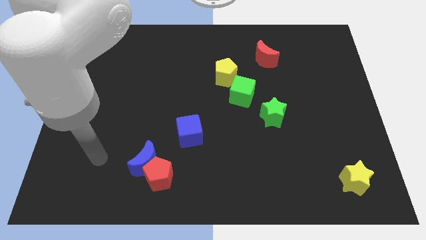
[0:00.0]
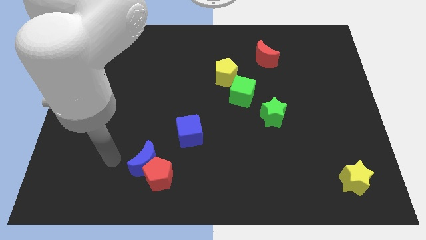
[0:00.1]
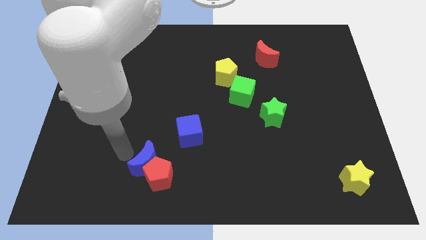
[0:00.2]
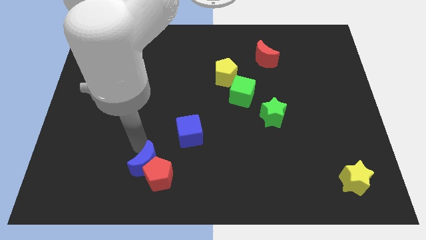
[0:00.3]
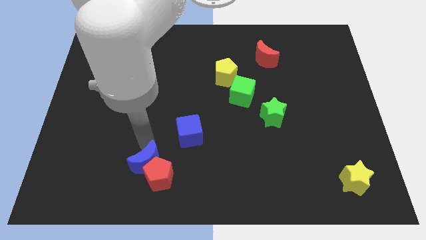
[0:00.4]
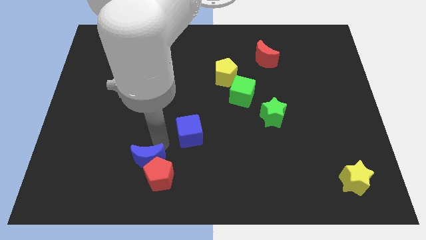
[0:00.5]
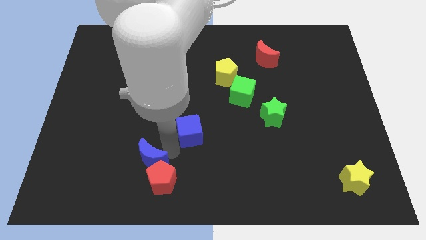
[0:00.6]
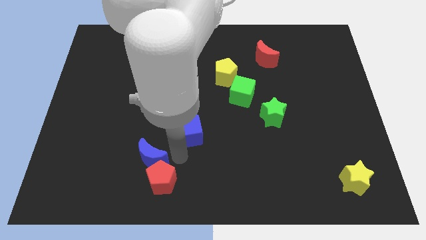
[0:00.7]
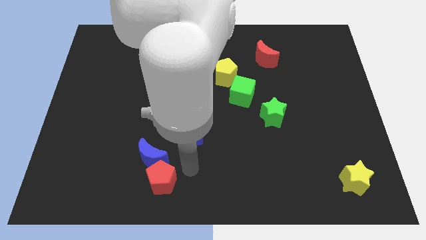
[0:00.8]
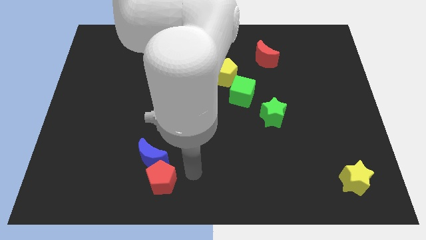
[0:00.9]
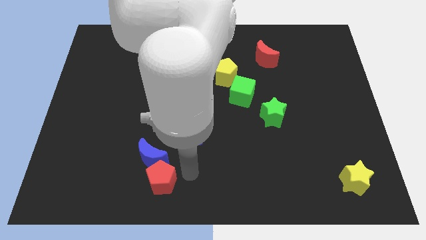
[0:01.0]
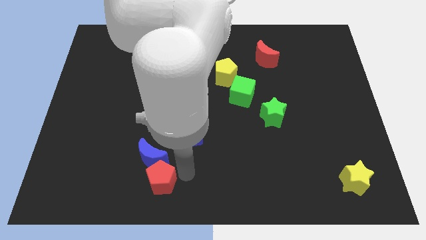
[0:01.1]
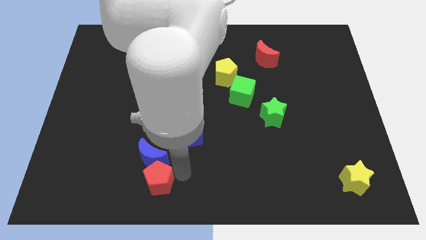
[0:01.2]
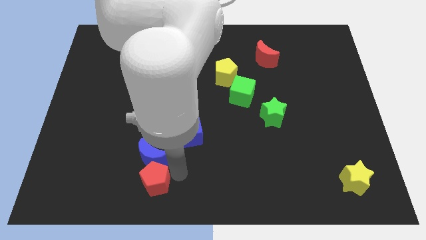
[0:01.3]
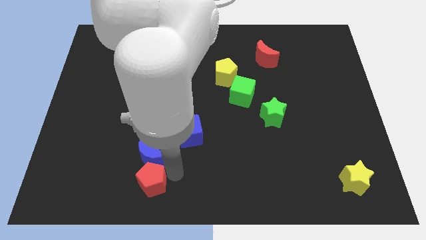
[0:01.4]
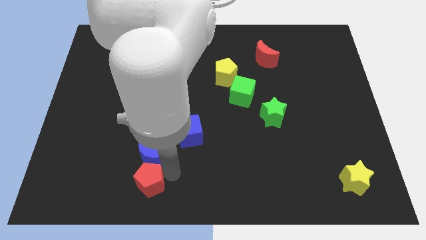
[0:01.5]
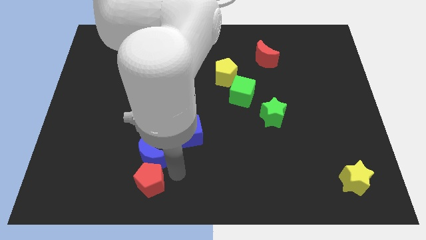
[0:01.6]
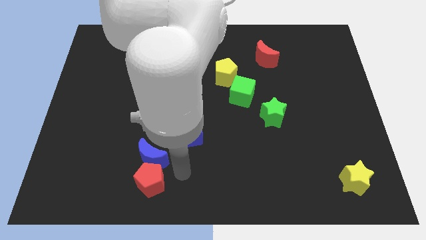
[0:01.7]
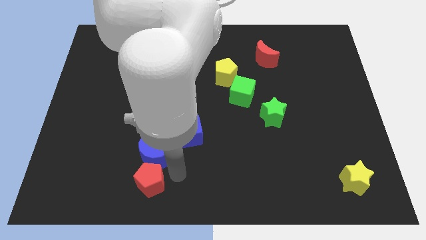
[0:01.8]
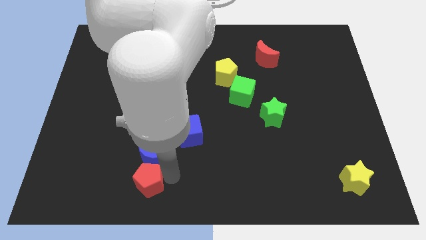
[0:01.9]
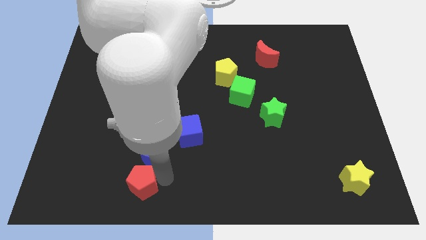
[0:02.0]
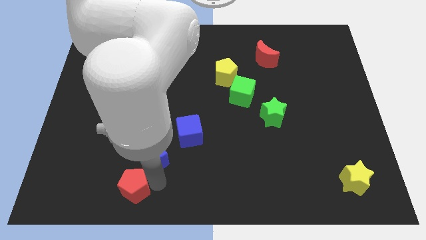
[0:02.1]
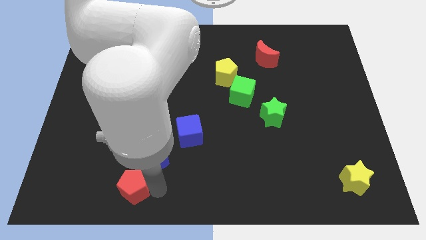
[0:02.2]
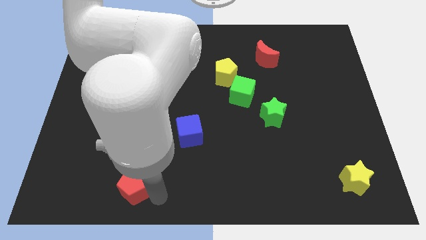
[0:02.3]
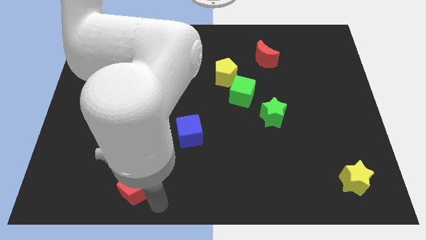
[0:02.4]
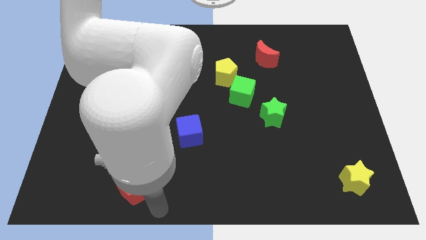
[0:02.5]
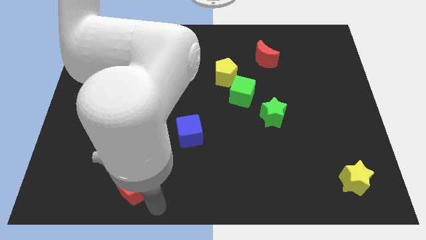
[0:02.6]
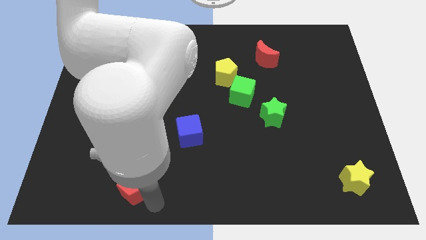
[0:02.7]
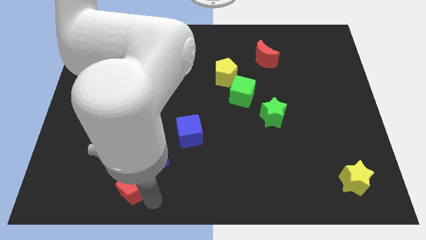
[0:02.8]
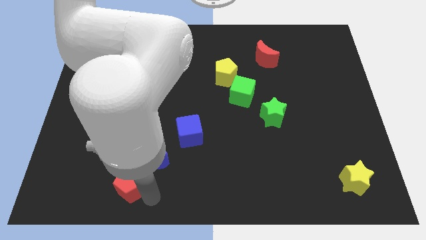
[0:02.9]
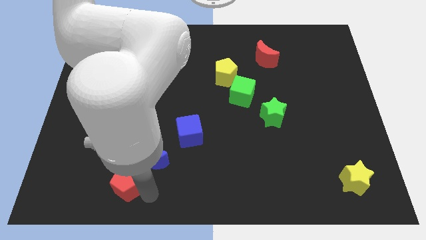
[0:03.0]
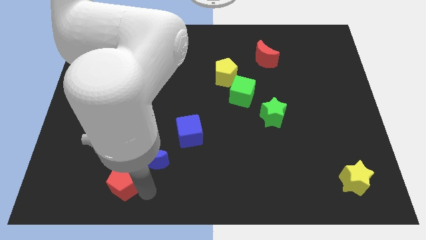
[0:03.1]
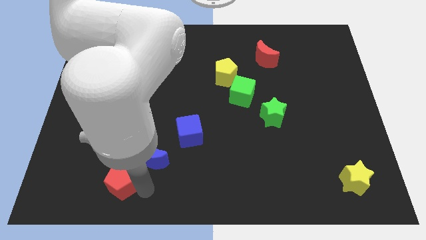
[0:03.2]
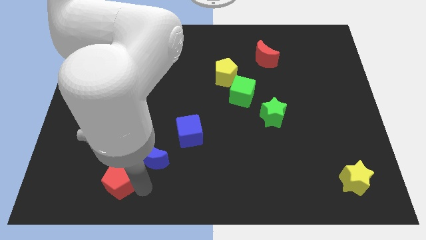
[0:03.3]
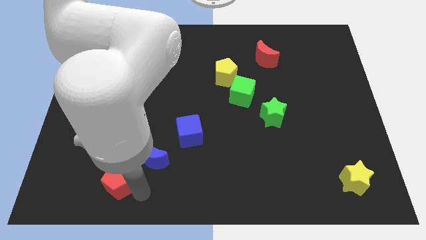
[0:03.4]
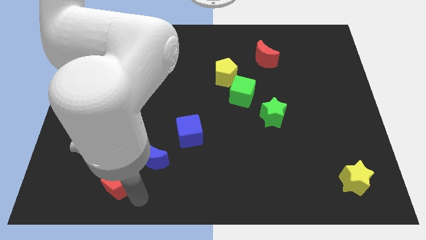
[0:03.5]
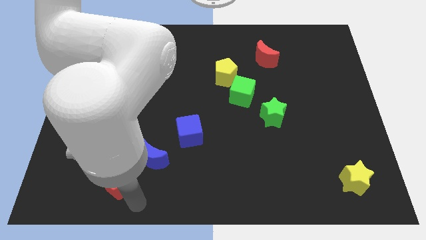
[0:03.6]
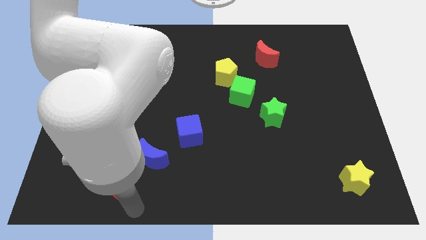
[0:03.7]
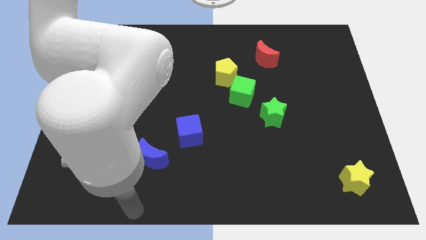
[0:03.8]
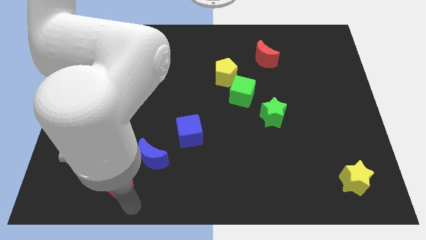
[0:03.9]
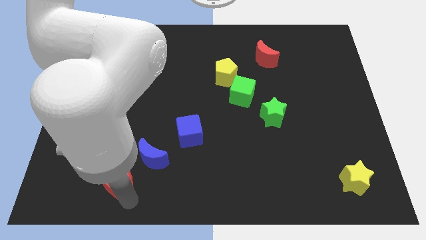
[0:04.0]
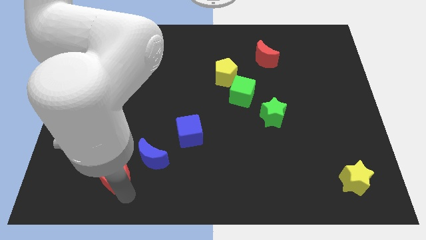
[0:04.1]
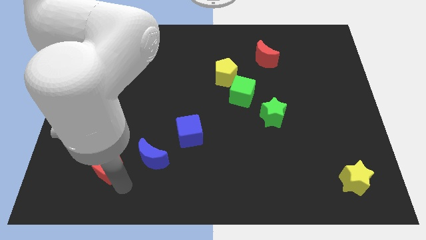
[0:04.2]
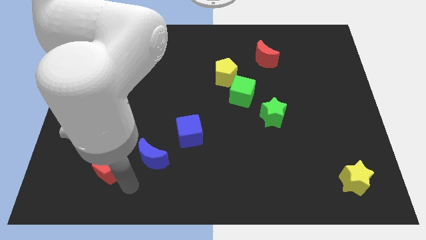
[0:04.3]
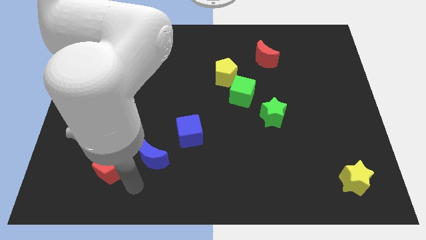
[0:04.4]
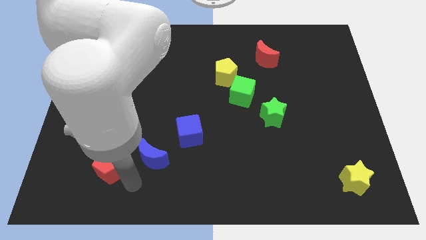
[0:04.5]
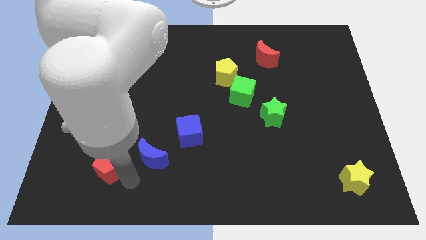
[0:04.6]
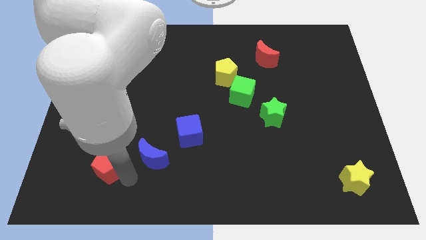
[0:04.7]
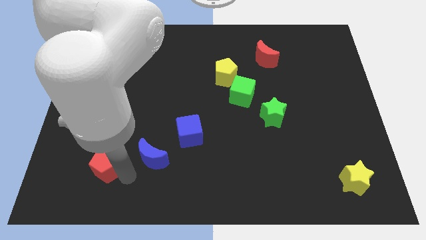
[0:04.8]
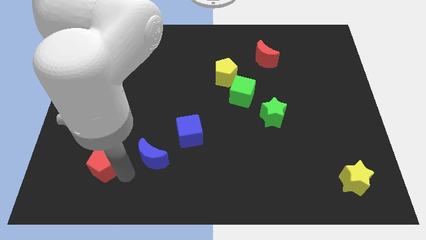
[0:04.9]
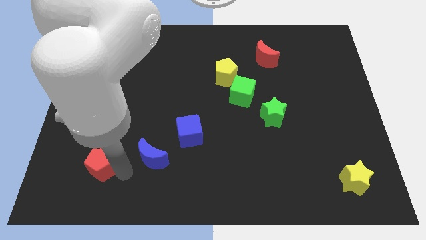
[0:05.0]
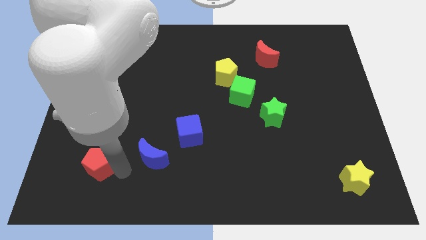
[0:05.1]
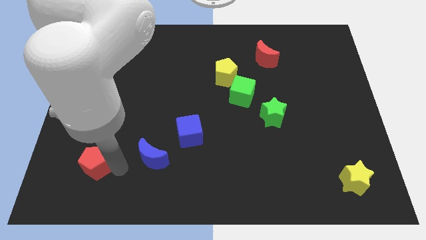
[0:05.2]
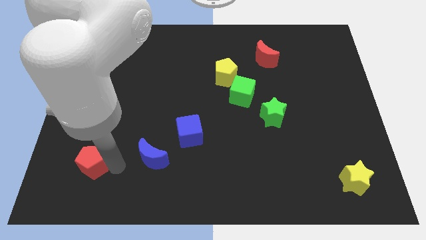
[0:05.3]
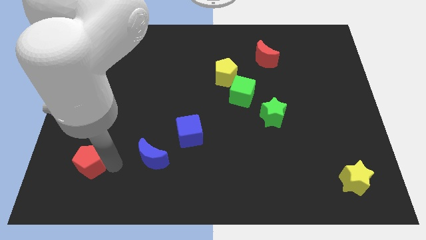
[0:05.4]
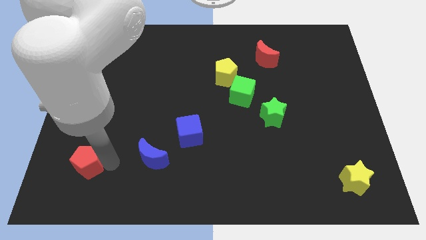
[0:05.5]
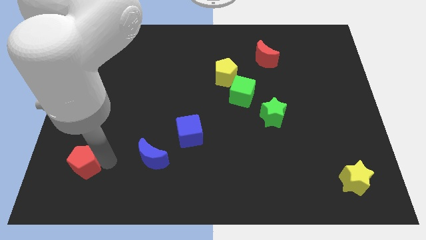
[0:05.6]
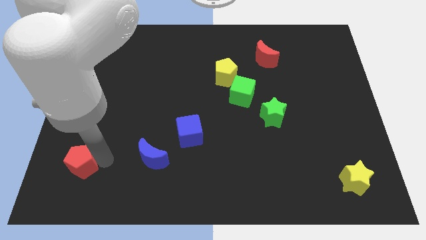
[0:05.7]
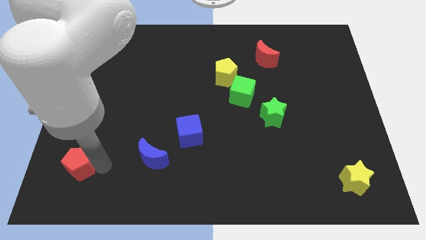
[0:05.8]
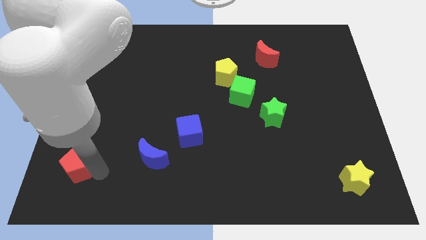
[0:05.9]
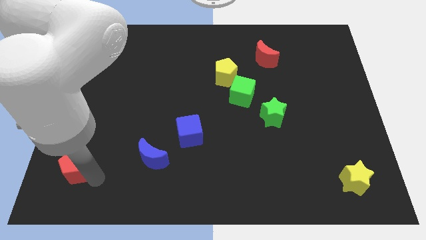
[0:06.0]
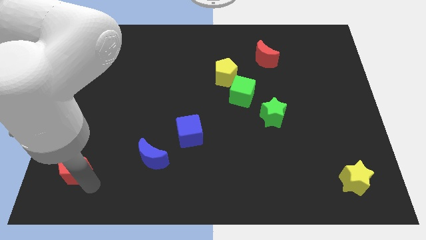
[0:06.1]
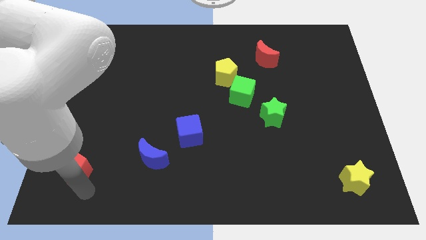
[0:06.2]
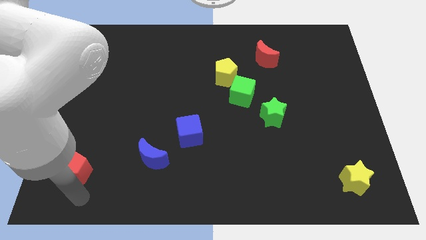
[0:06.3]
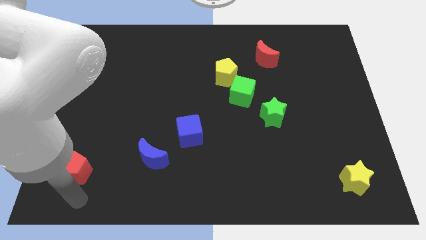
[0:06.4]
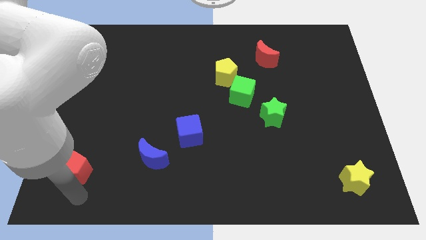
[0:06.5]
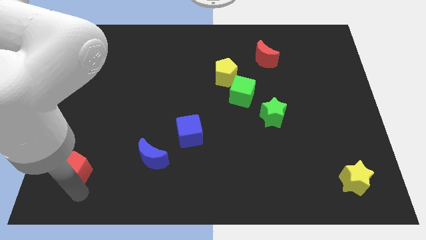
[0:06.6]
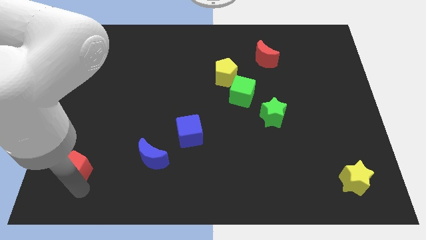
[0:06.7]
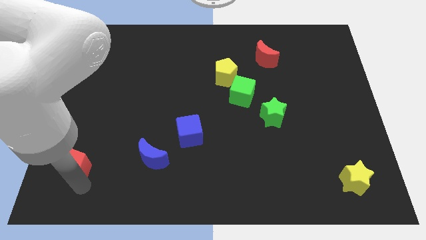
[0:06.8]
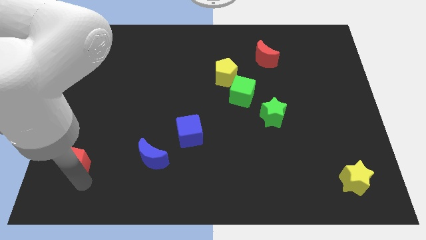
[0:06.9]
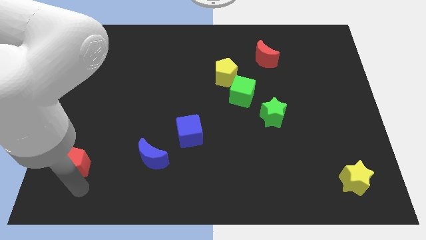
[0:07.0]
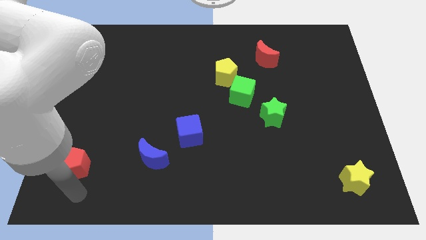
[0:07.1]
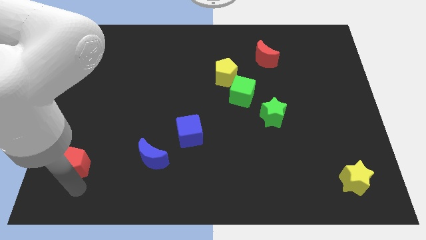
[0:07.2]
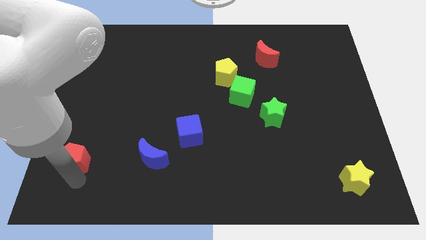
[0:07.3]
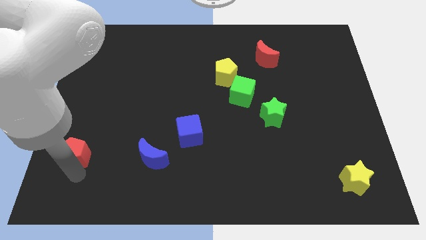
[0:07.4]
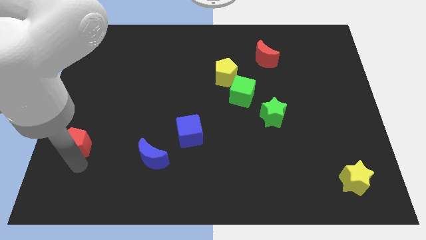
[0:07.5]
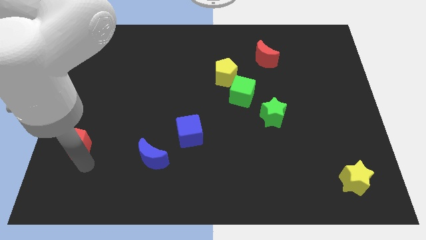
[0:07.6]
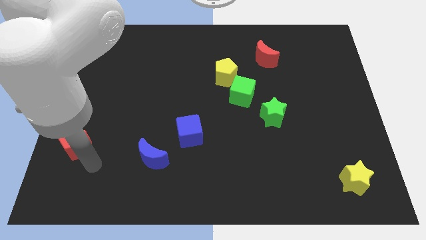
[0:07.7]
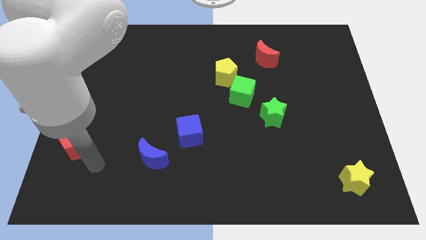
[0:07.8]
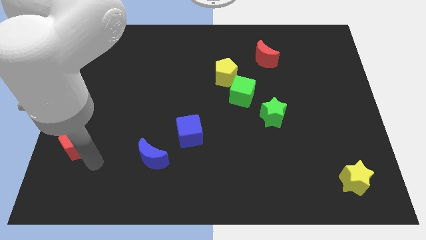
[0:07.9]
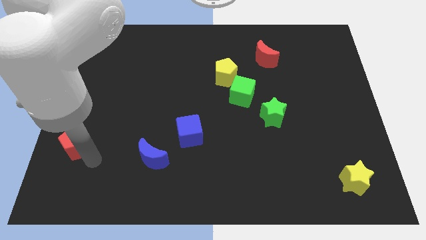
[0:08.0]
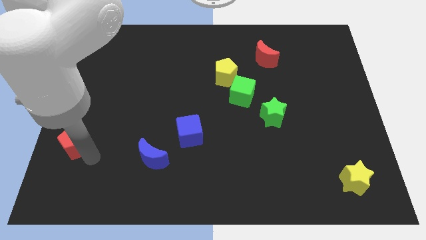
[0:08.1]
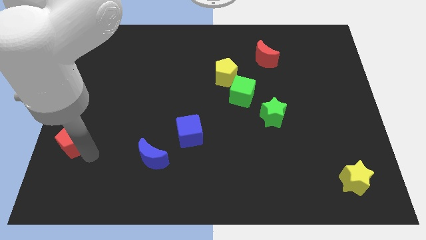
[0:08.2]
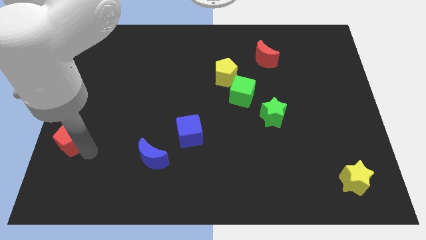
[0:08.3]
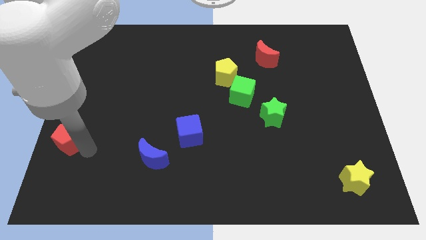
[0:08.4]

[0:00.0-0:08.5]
push the red pentagon to the left side of the board
